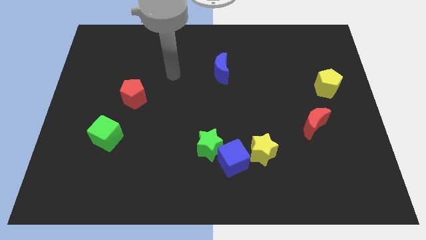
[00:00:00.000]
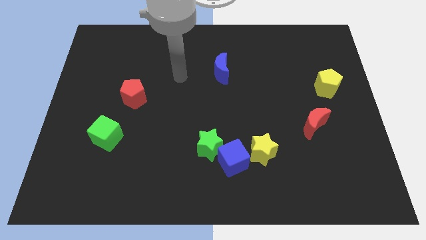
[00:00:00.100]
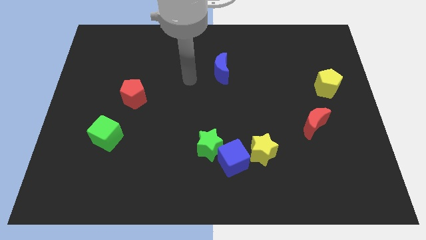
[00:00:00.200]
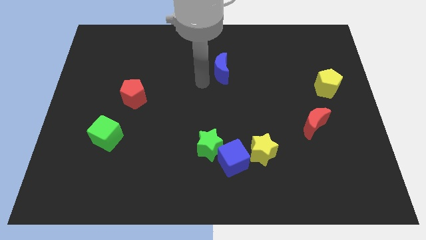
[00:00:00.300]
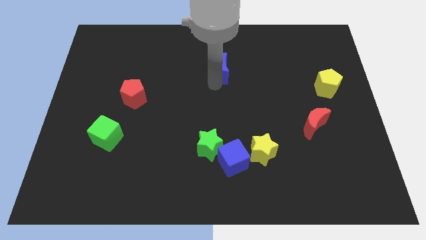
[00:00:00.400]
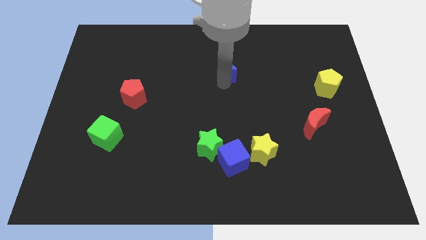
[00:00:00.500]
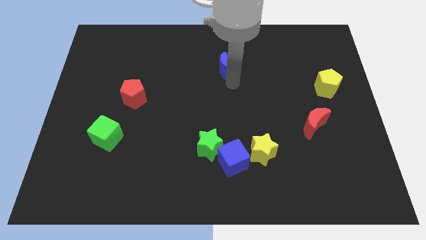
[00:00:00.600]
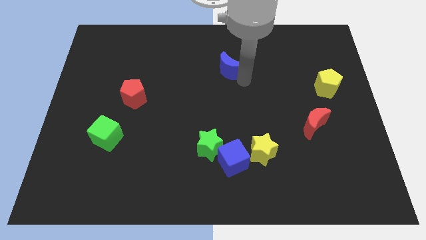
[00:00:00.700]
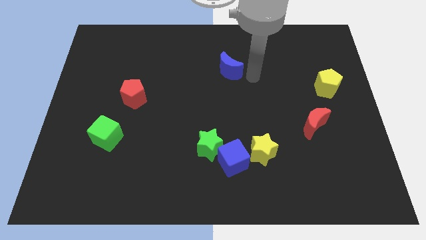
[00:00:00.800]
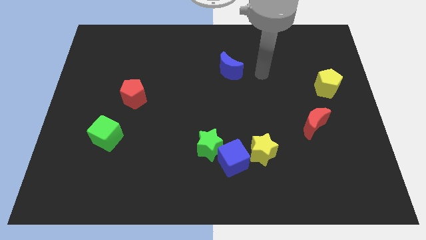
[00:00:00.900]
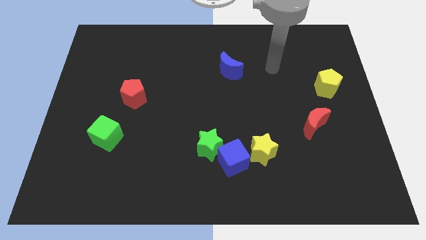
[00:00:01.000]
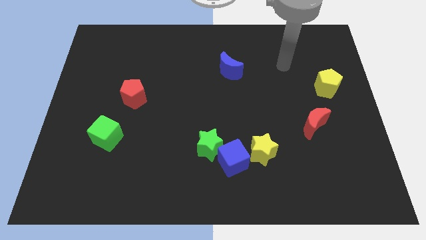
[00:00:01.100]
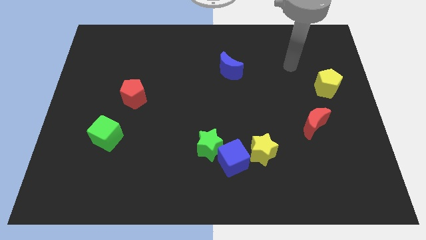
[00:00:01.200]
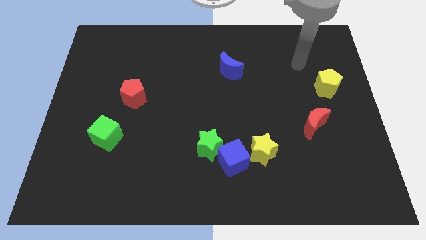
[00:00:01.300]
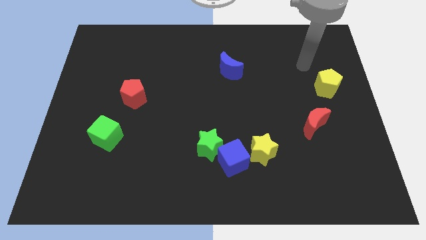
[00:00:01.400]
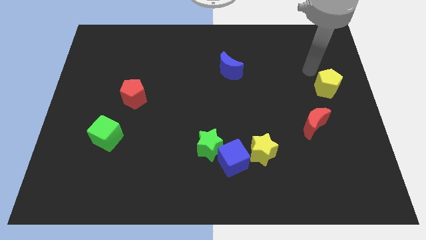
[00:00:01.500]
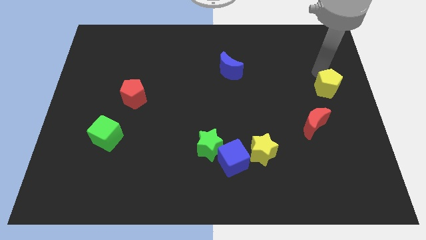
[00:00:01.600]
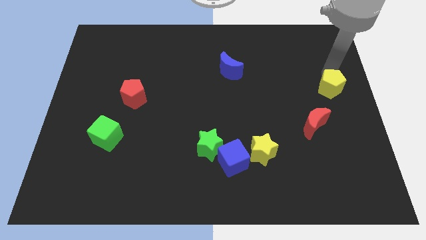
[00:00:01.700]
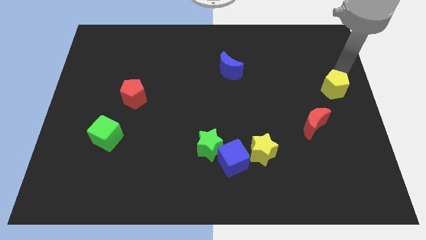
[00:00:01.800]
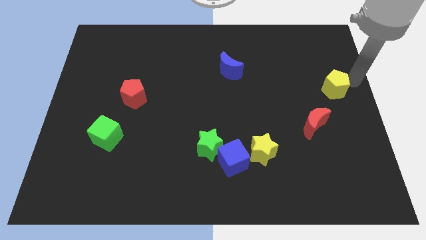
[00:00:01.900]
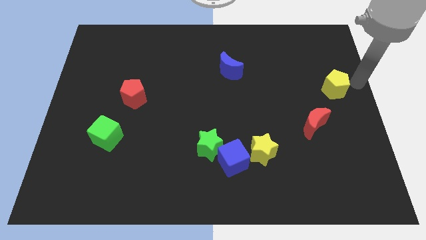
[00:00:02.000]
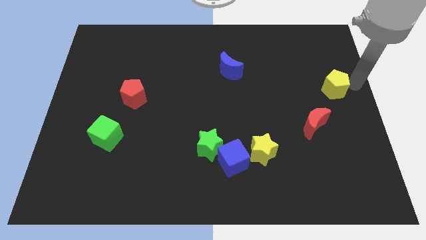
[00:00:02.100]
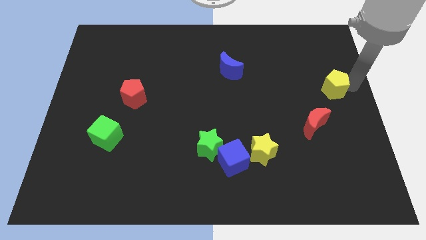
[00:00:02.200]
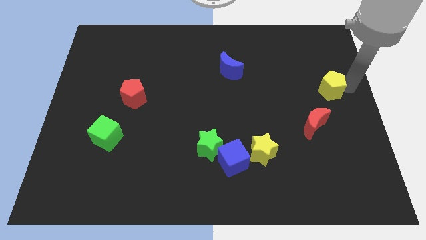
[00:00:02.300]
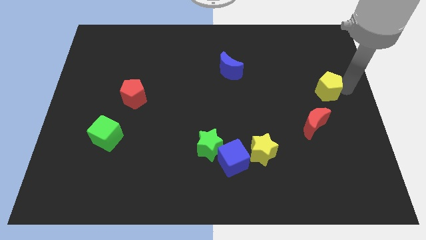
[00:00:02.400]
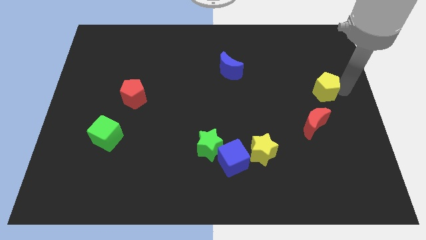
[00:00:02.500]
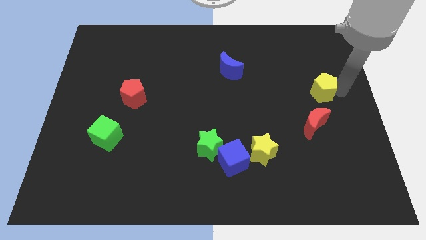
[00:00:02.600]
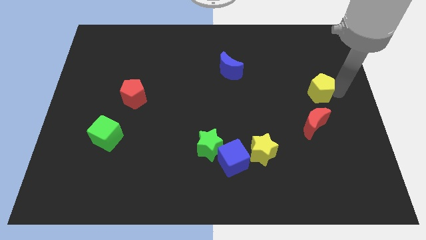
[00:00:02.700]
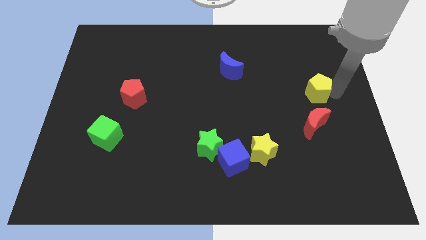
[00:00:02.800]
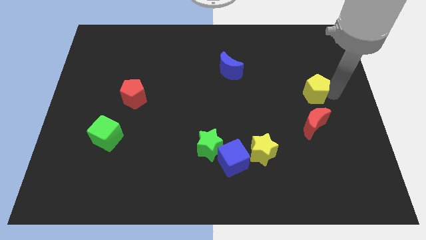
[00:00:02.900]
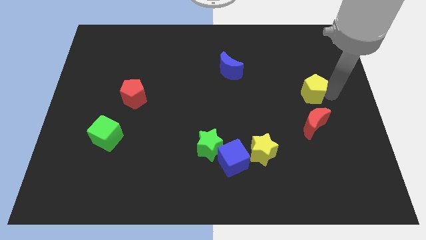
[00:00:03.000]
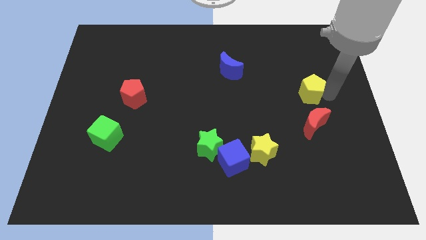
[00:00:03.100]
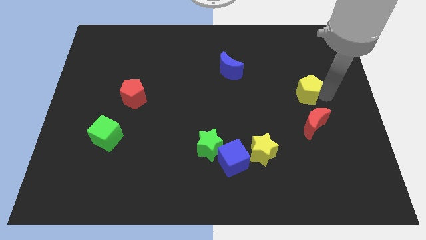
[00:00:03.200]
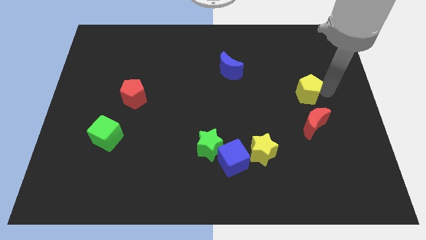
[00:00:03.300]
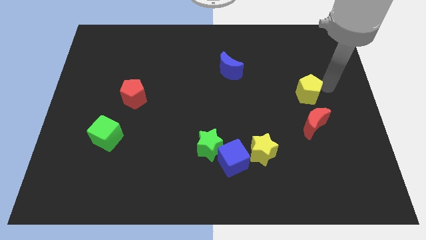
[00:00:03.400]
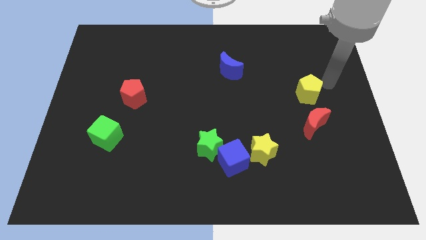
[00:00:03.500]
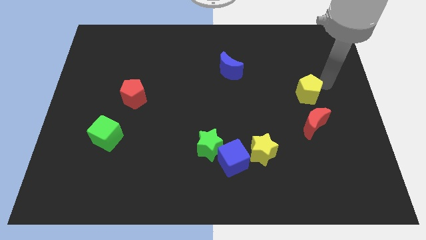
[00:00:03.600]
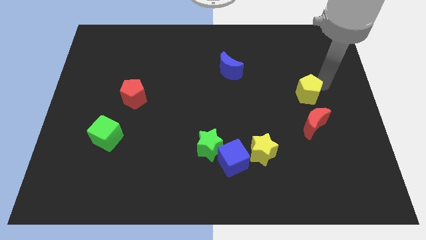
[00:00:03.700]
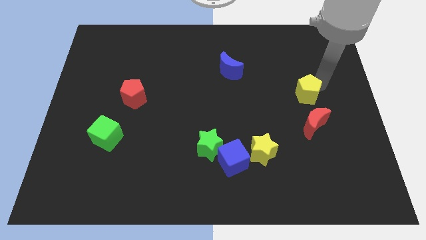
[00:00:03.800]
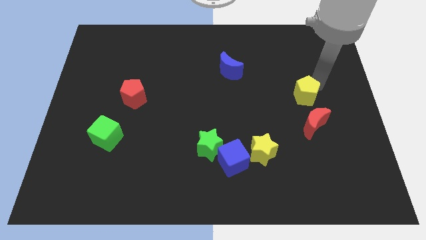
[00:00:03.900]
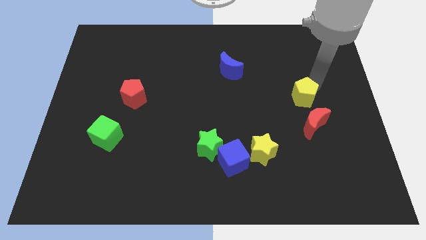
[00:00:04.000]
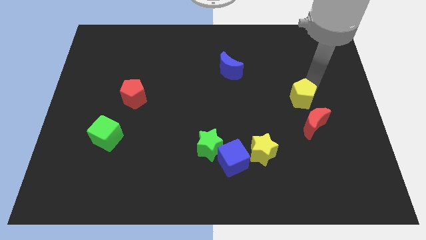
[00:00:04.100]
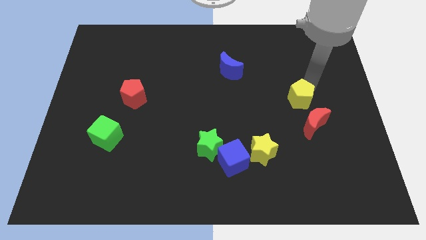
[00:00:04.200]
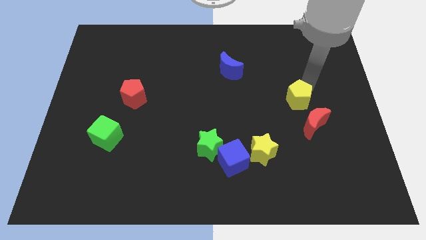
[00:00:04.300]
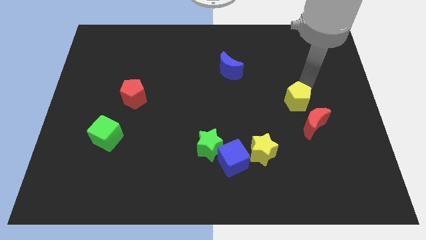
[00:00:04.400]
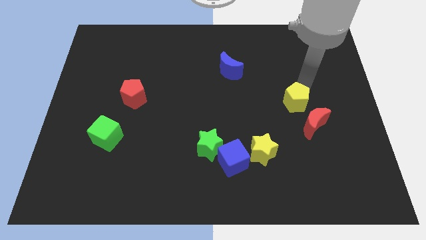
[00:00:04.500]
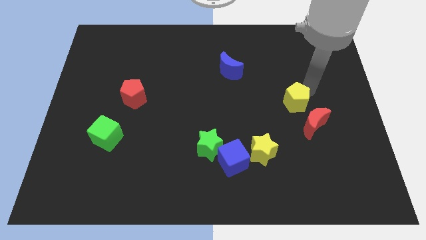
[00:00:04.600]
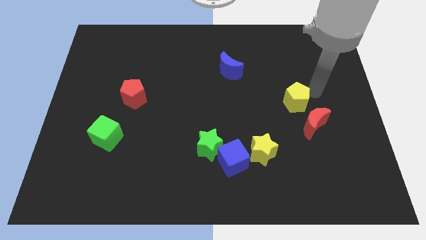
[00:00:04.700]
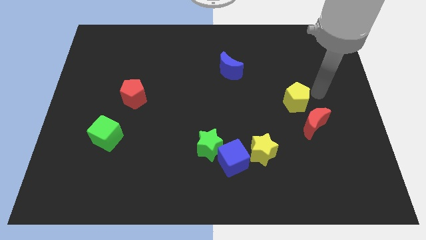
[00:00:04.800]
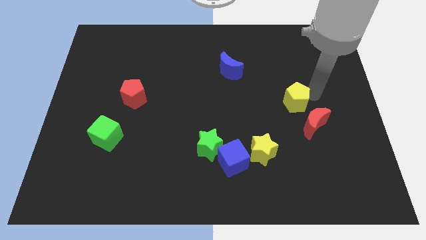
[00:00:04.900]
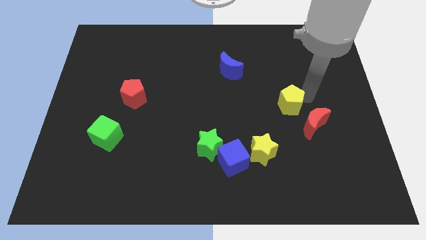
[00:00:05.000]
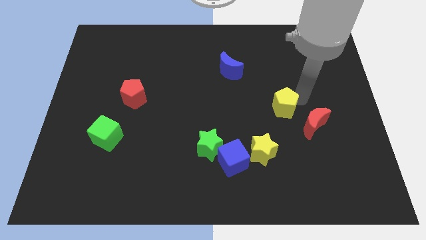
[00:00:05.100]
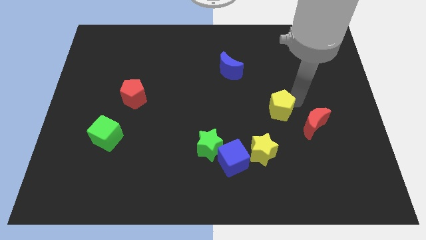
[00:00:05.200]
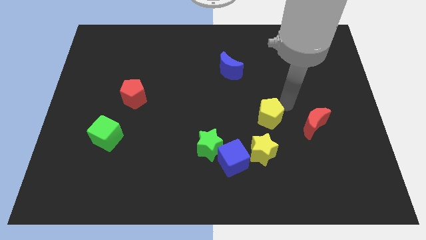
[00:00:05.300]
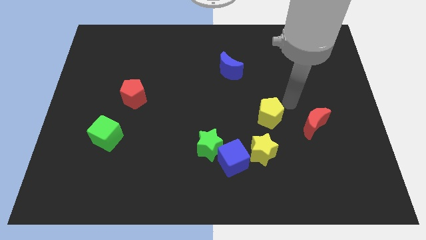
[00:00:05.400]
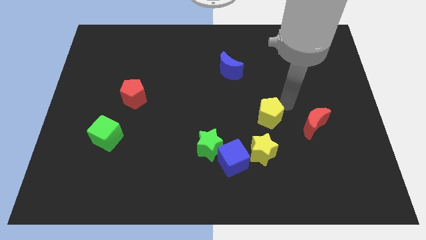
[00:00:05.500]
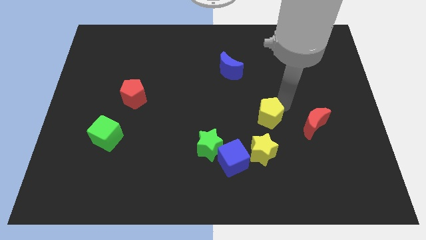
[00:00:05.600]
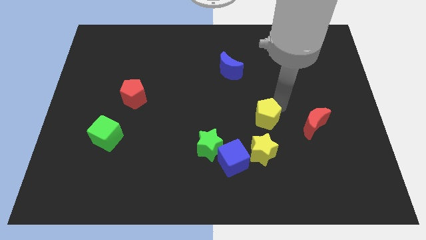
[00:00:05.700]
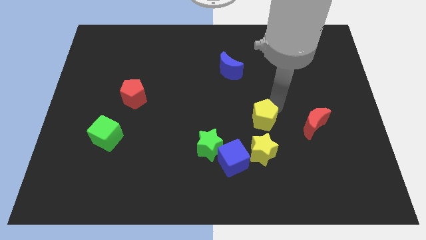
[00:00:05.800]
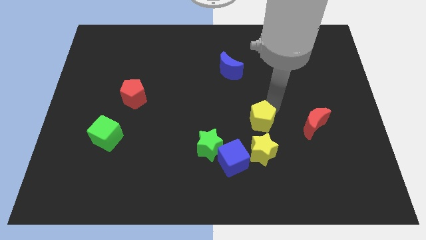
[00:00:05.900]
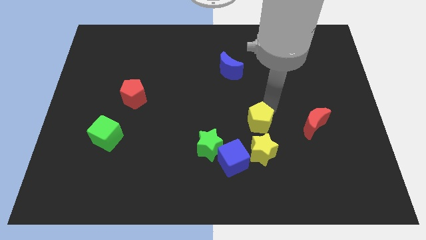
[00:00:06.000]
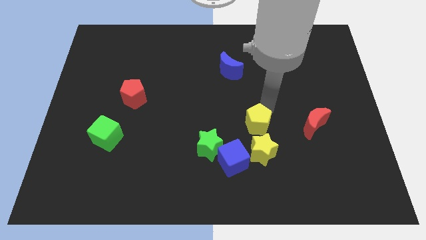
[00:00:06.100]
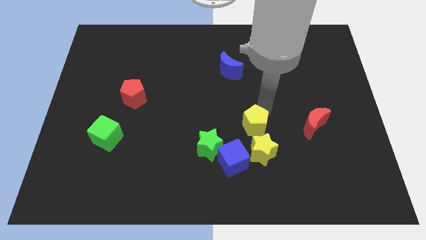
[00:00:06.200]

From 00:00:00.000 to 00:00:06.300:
push the yellow pentagon diagonally up and to the left of the yellow star

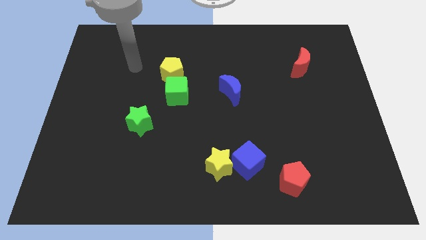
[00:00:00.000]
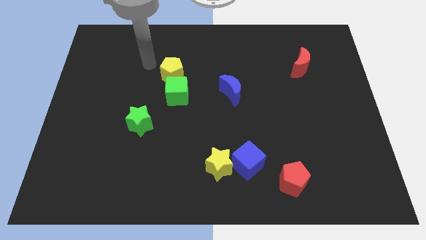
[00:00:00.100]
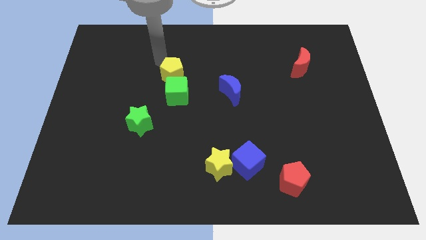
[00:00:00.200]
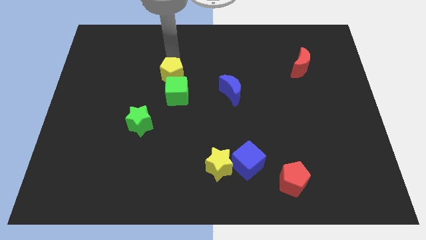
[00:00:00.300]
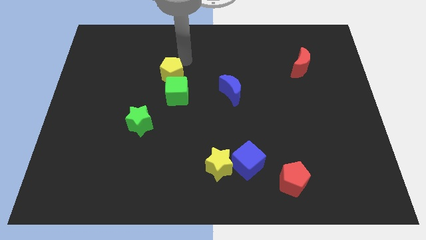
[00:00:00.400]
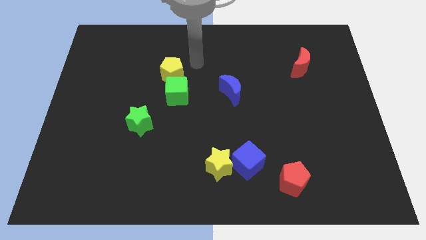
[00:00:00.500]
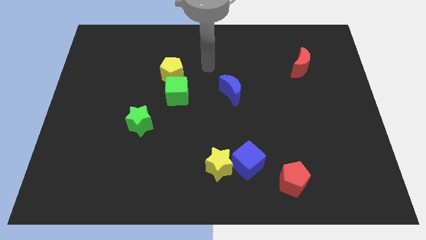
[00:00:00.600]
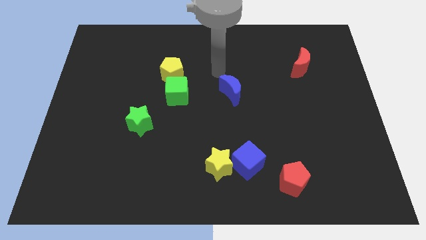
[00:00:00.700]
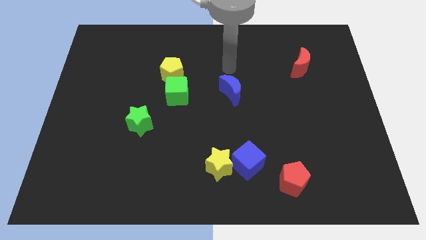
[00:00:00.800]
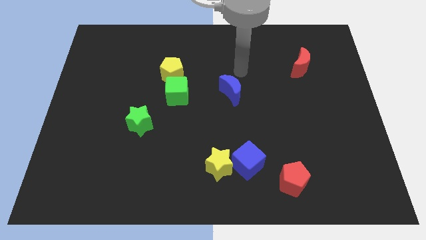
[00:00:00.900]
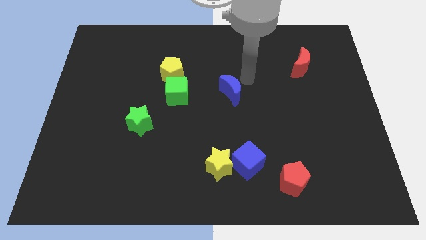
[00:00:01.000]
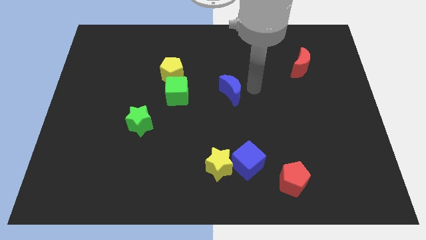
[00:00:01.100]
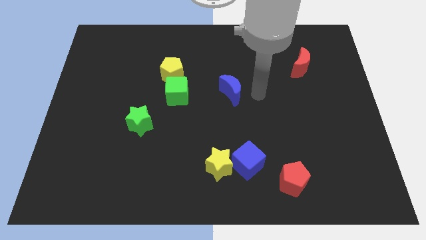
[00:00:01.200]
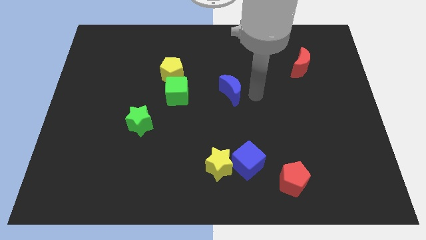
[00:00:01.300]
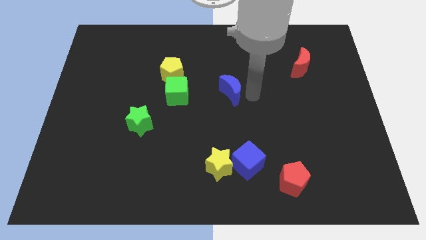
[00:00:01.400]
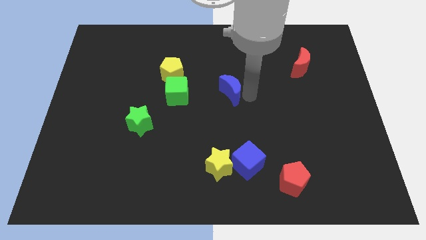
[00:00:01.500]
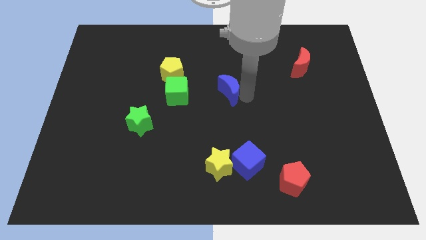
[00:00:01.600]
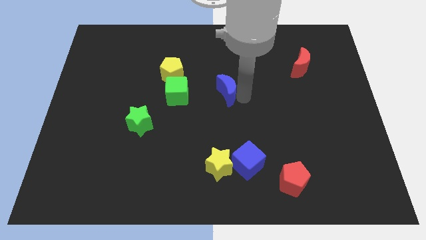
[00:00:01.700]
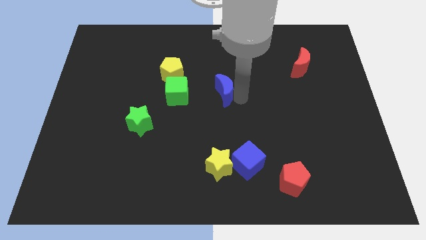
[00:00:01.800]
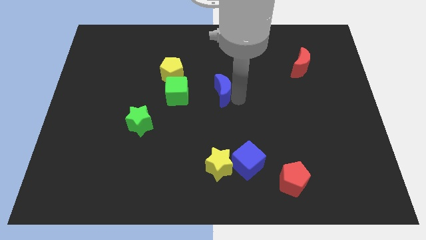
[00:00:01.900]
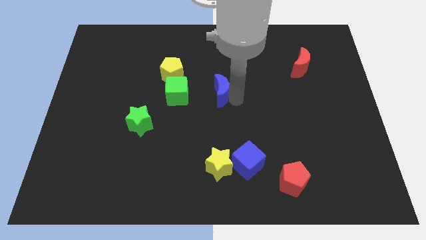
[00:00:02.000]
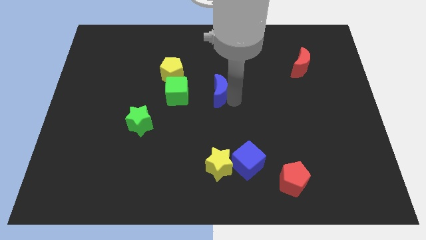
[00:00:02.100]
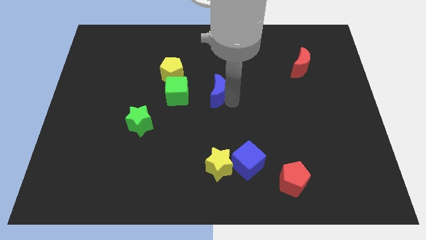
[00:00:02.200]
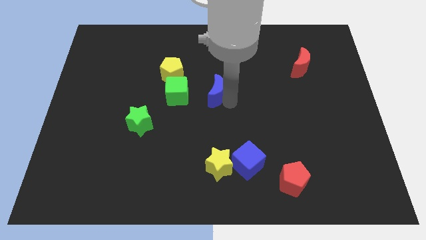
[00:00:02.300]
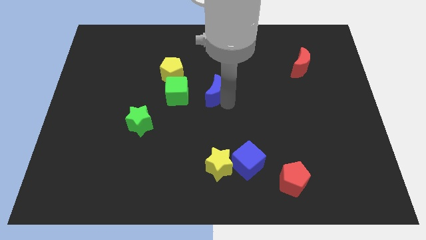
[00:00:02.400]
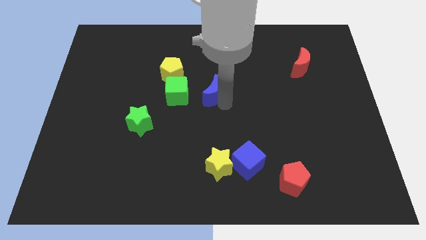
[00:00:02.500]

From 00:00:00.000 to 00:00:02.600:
move the blue moon to the bottom right side of the yellow pentagon
